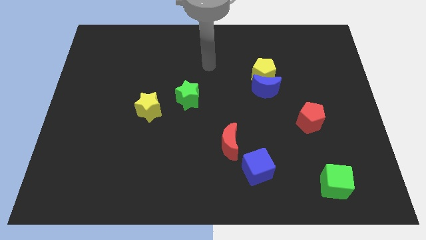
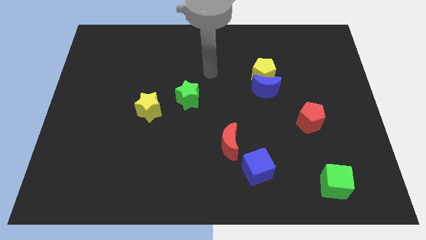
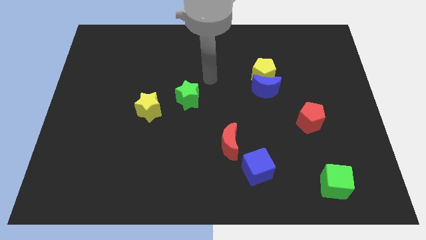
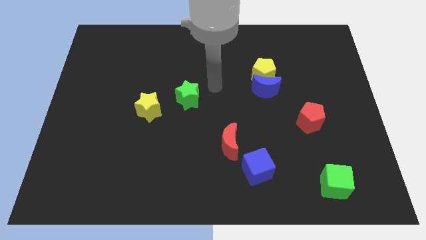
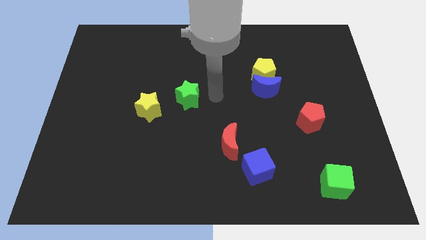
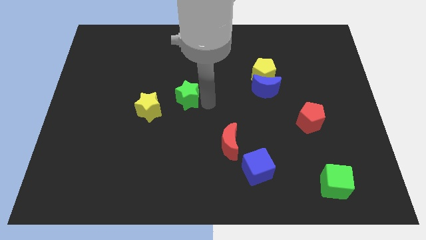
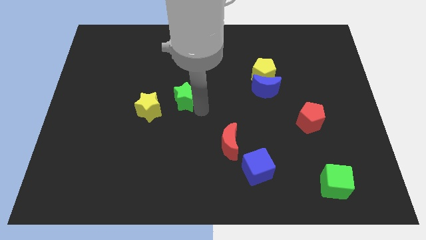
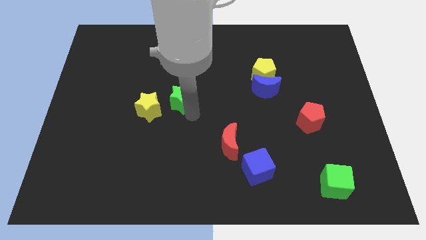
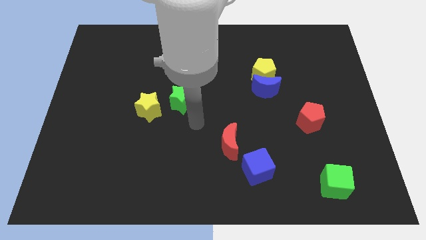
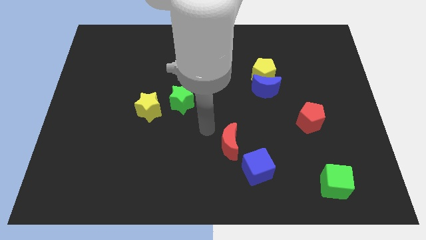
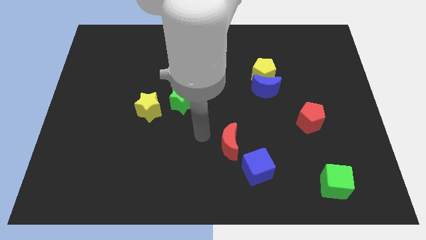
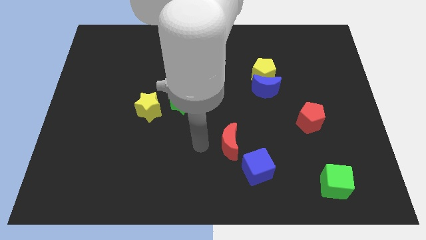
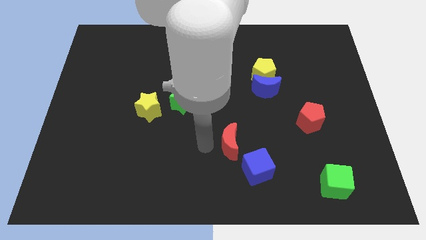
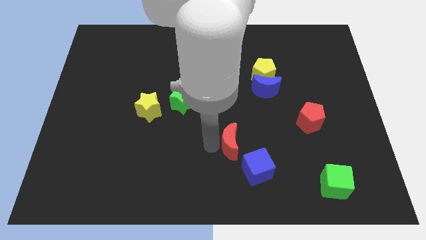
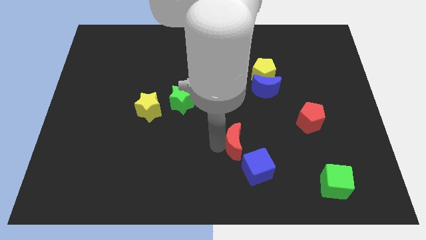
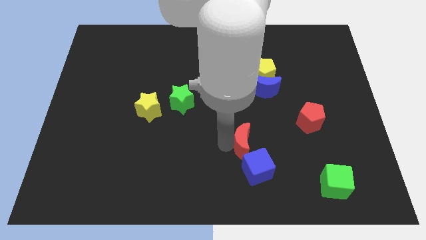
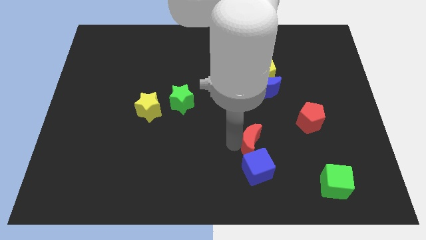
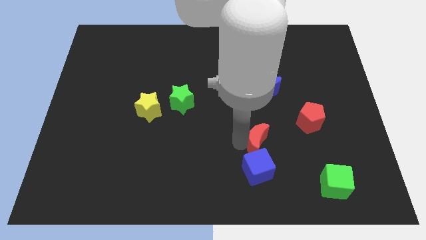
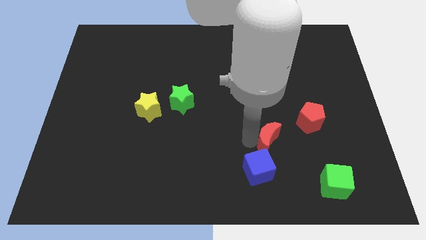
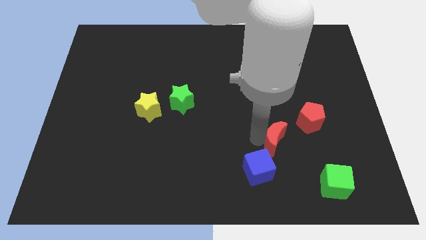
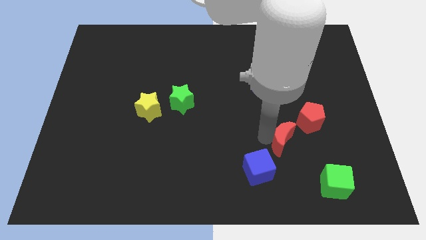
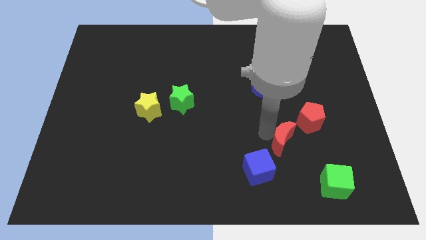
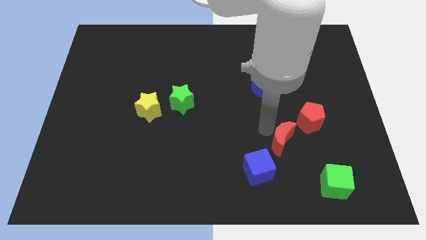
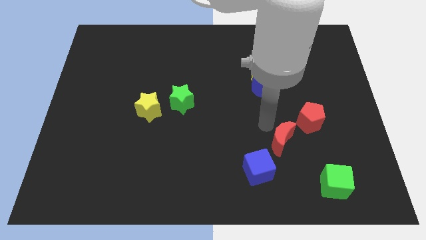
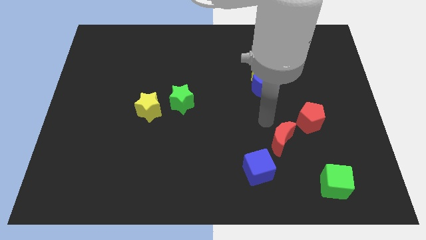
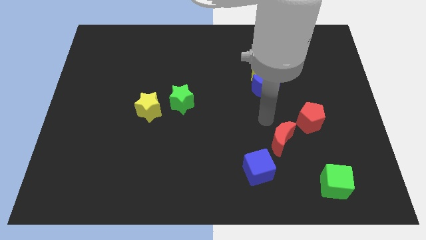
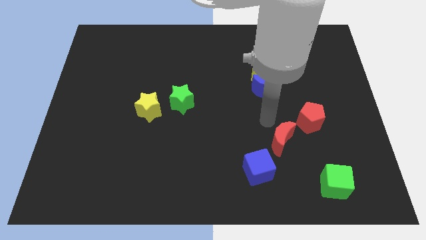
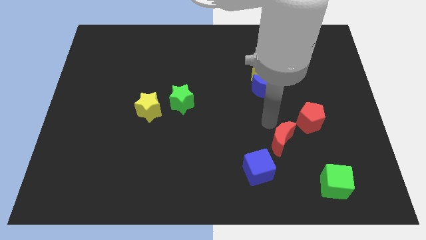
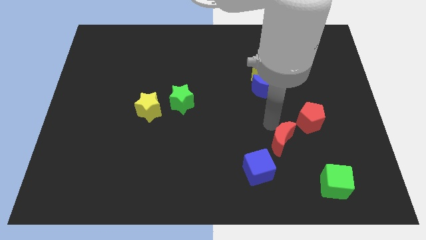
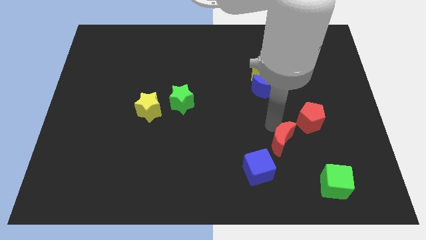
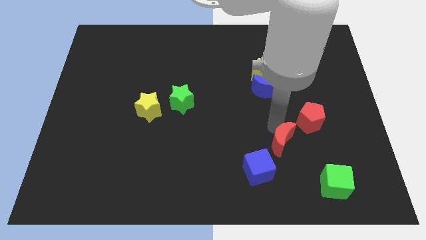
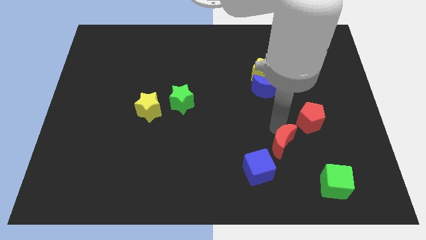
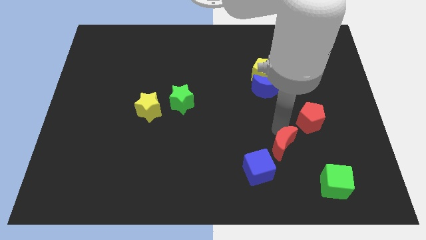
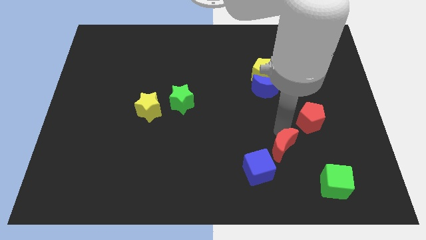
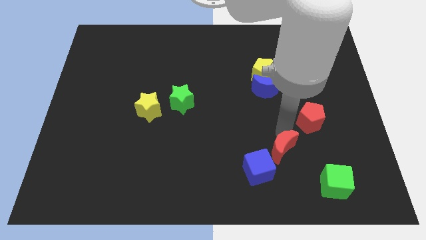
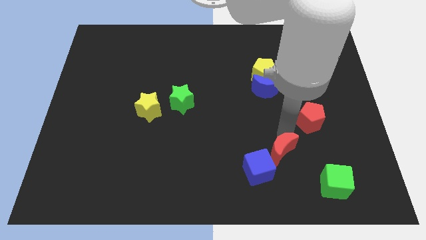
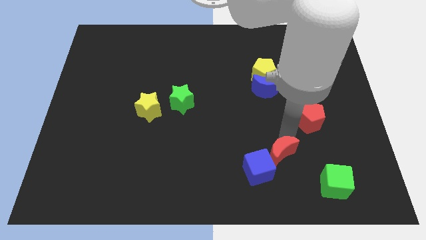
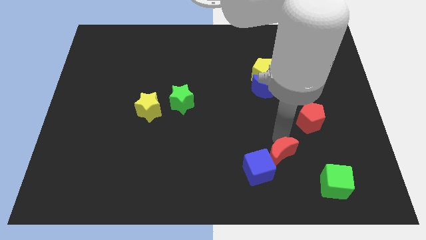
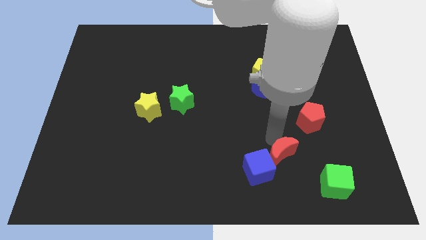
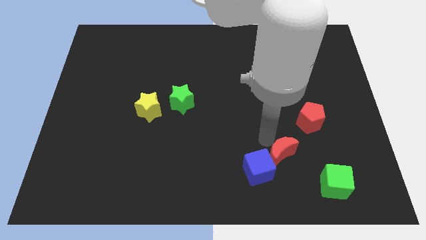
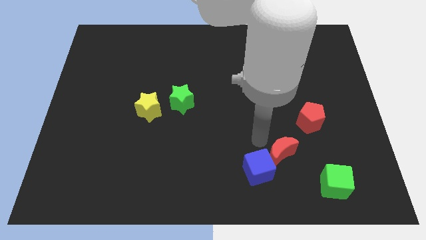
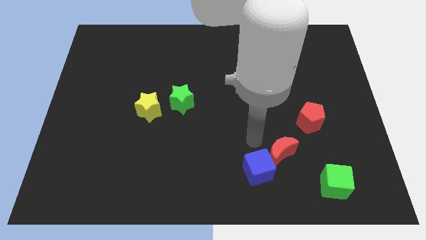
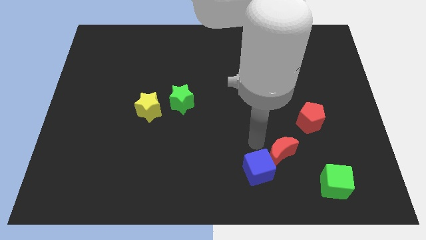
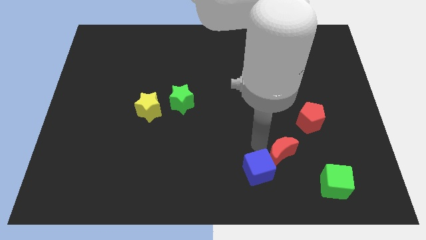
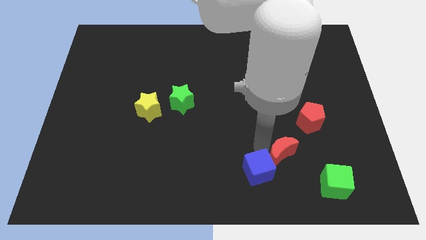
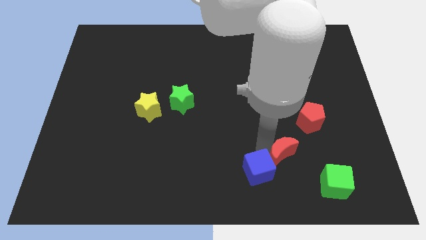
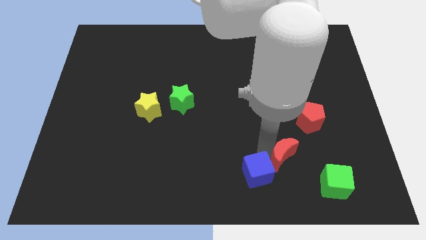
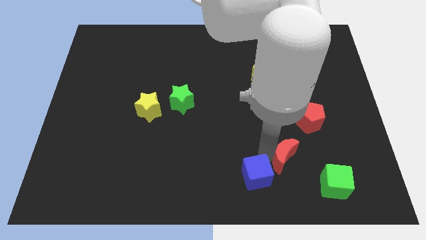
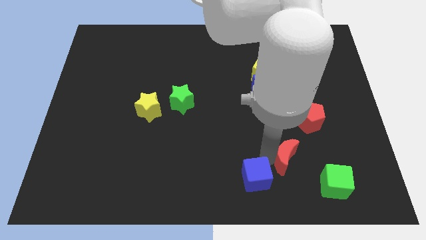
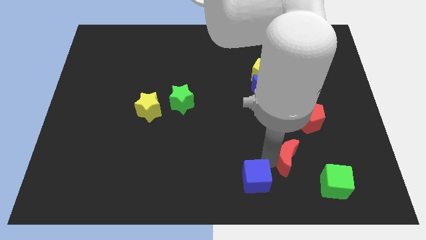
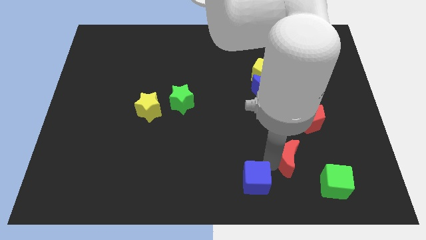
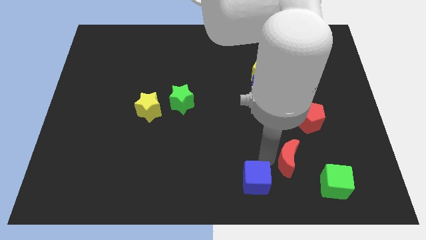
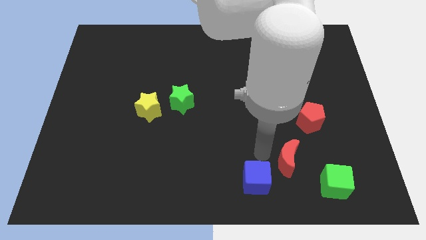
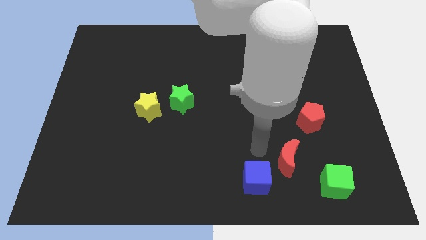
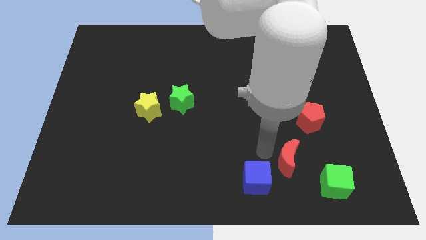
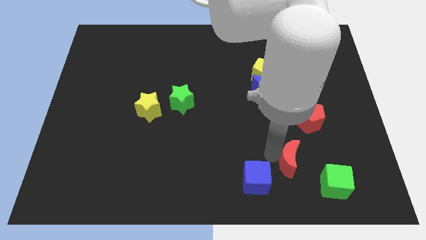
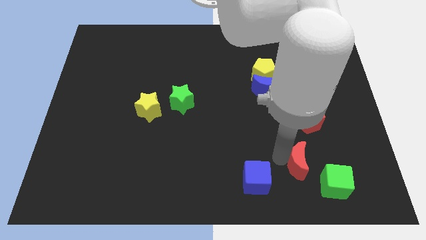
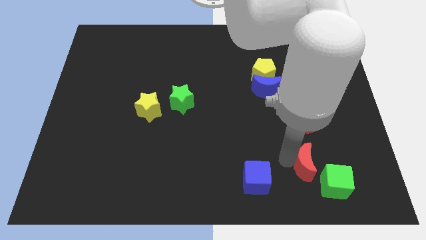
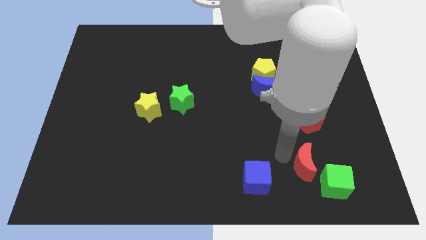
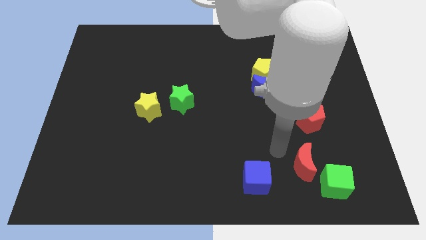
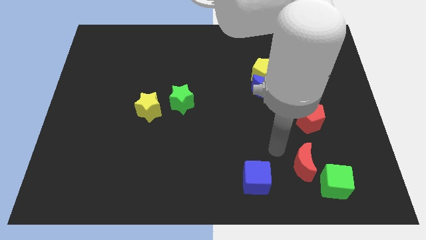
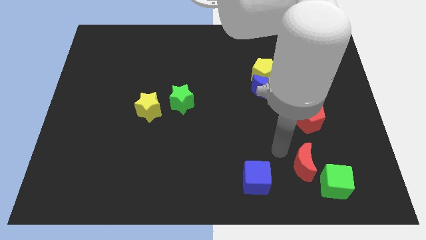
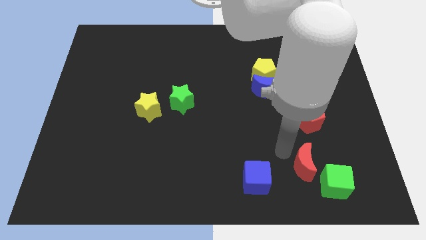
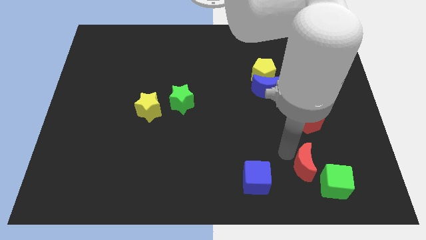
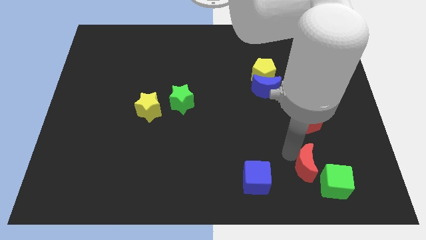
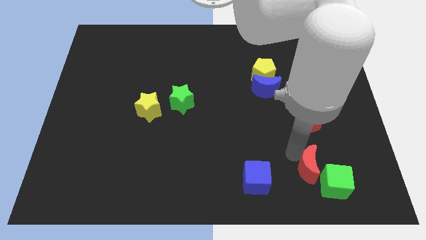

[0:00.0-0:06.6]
put the red moon to the green cube

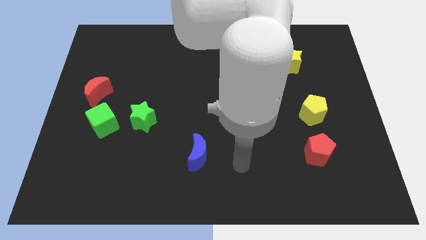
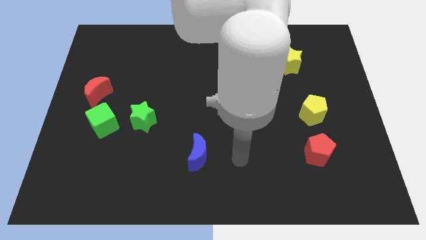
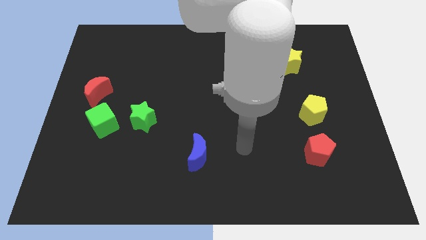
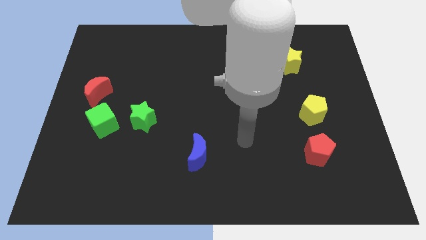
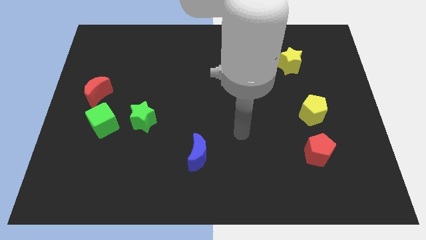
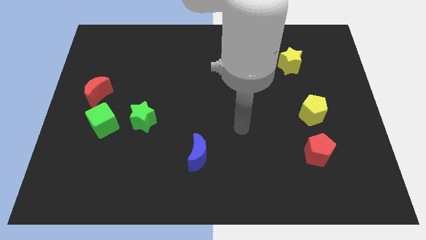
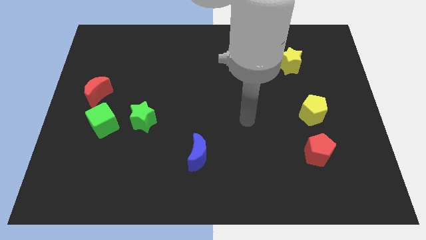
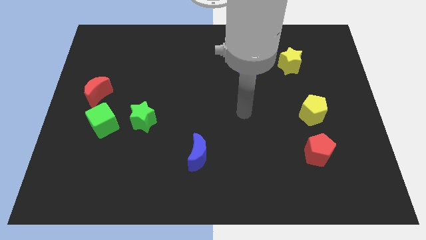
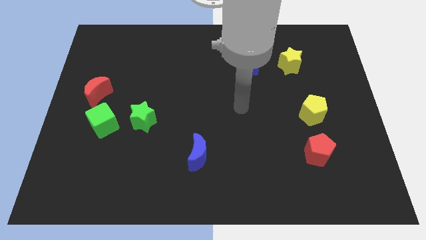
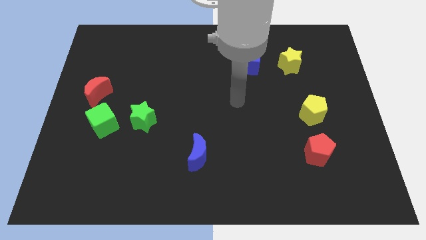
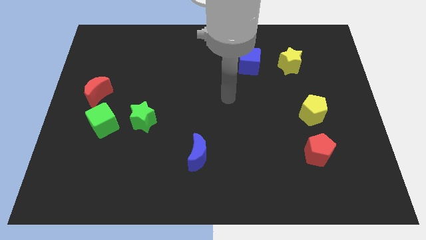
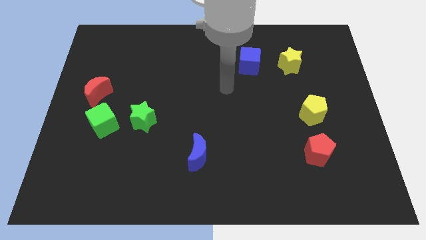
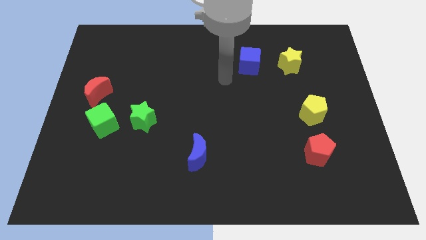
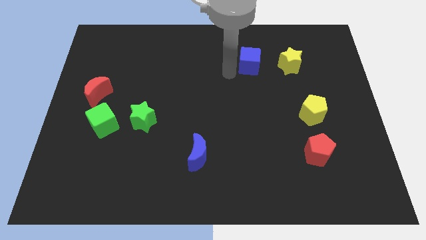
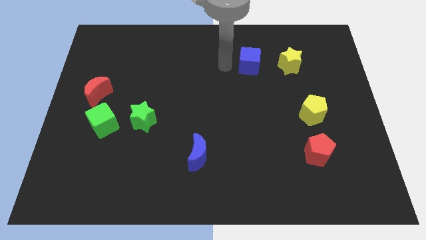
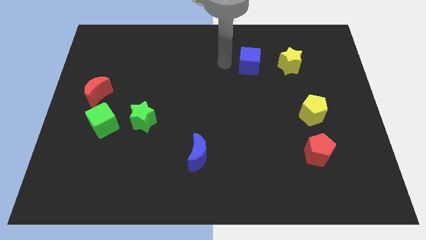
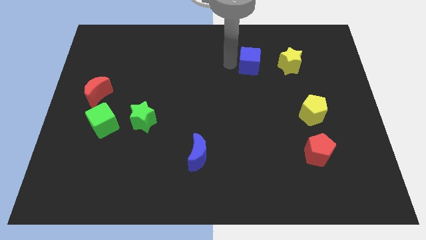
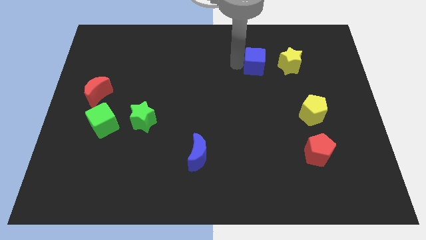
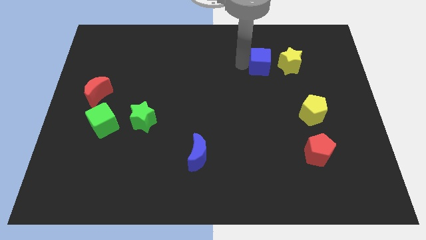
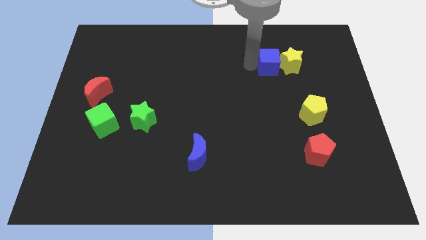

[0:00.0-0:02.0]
put the blue cube towards the yellow star
